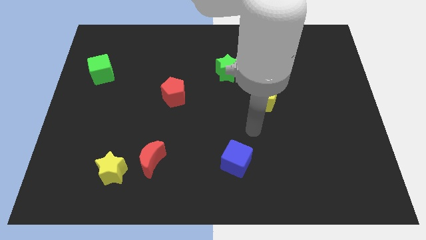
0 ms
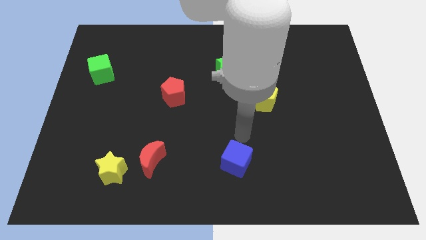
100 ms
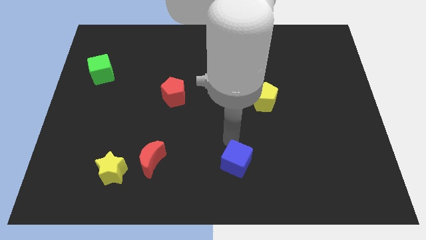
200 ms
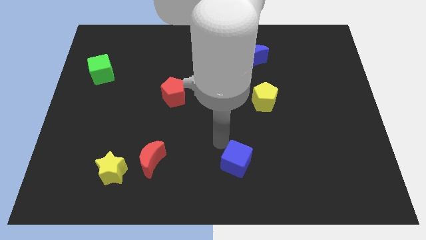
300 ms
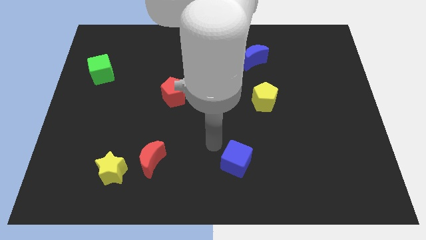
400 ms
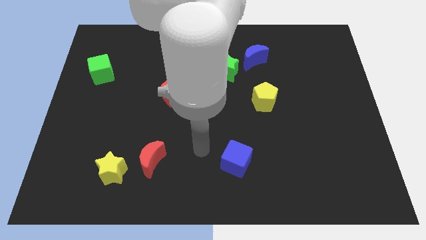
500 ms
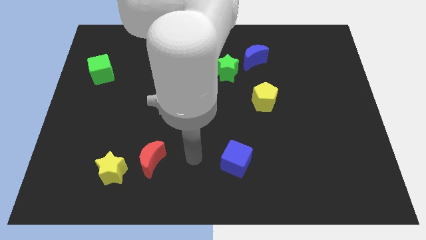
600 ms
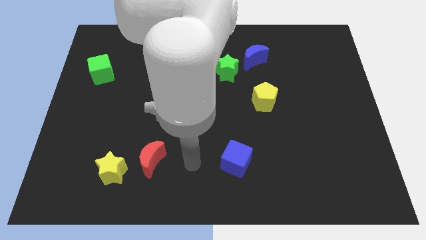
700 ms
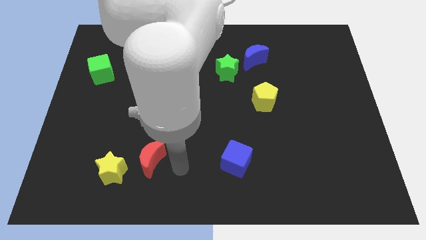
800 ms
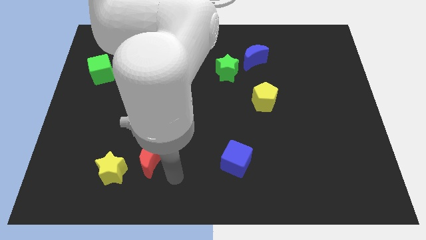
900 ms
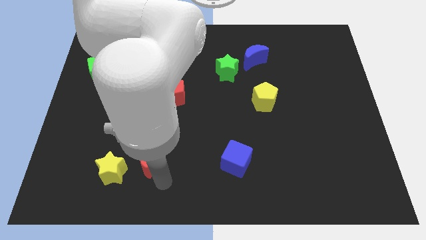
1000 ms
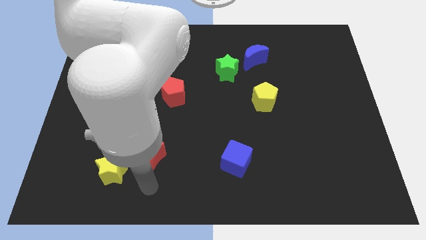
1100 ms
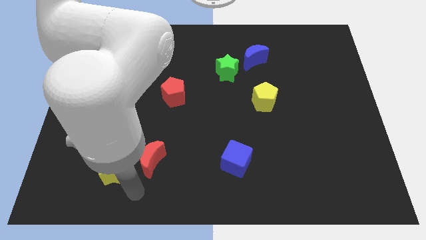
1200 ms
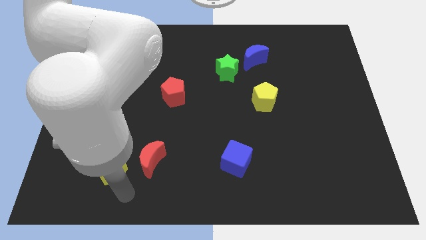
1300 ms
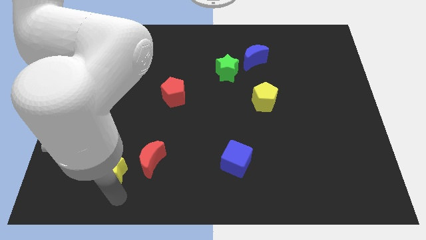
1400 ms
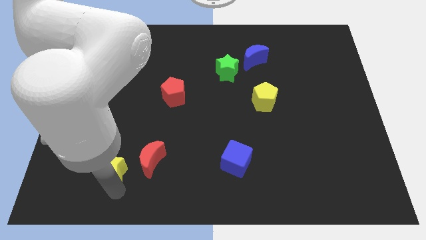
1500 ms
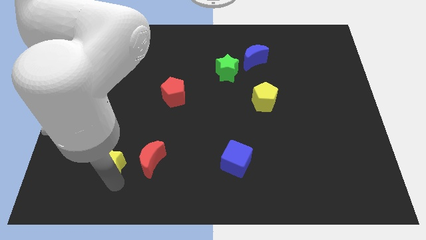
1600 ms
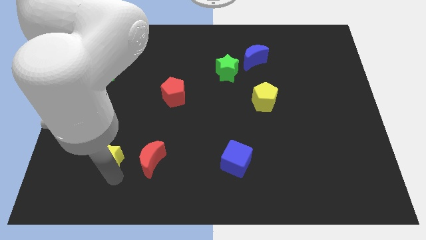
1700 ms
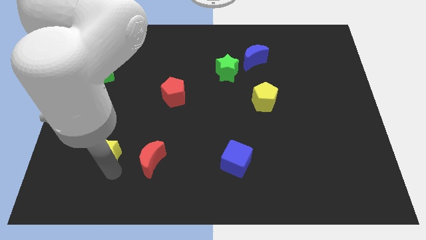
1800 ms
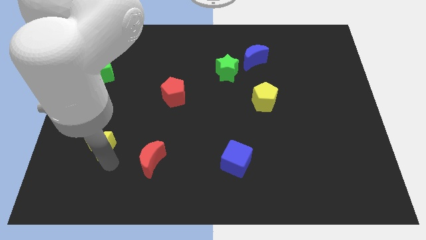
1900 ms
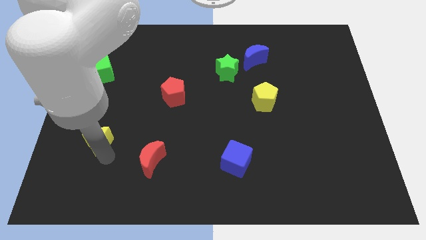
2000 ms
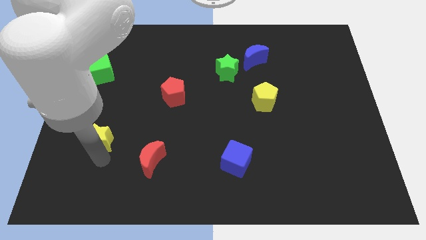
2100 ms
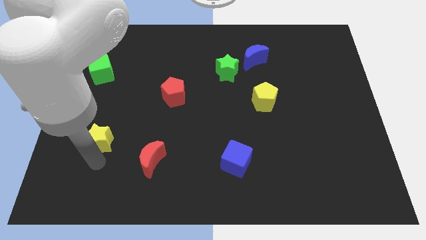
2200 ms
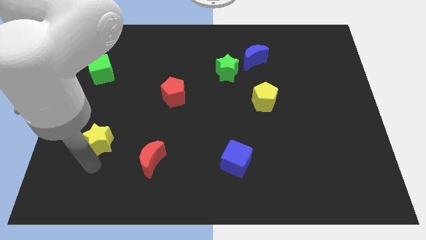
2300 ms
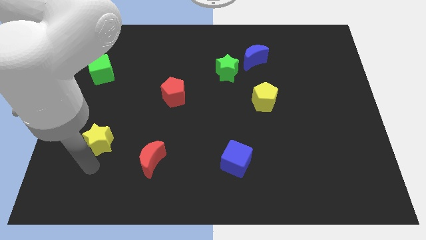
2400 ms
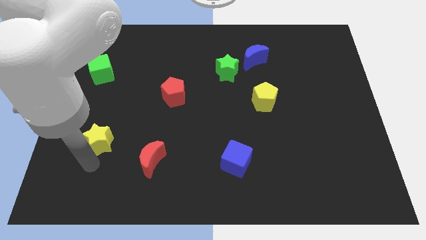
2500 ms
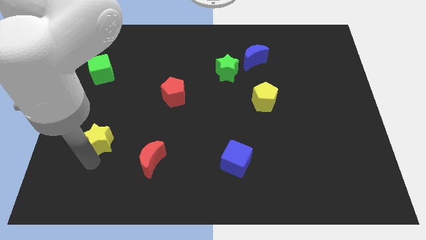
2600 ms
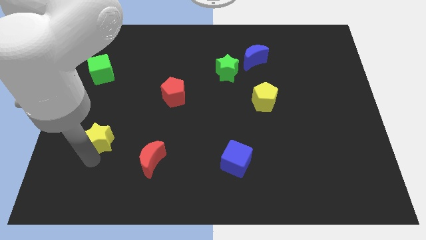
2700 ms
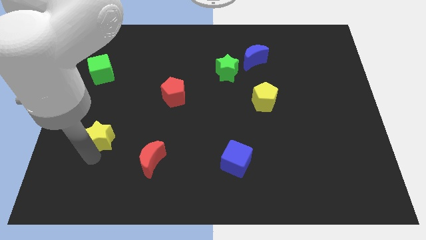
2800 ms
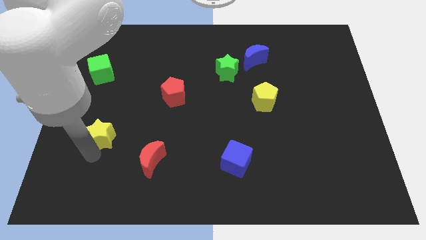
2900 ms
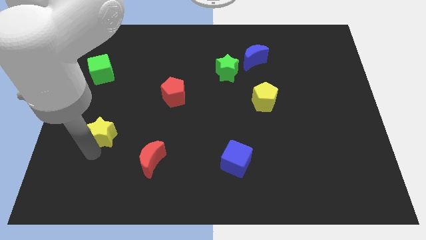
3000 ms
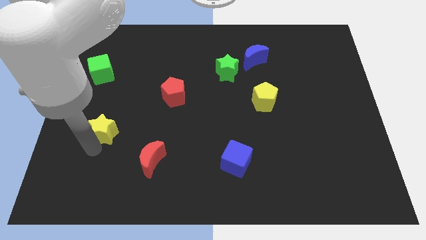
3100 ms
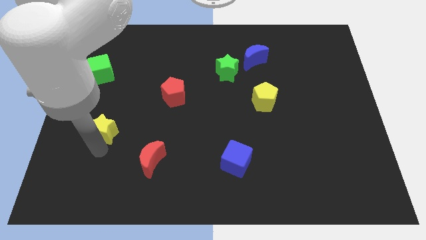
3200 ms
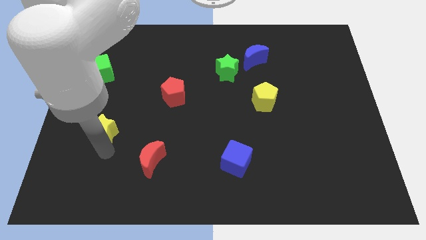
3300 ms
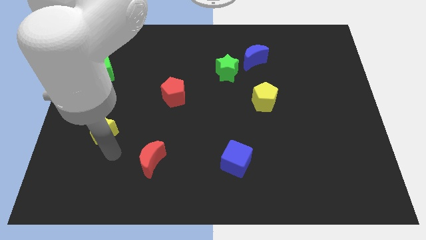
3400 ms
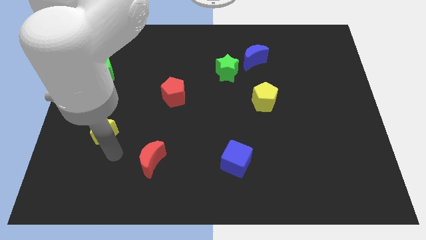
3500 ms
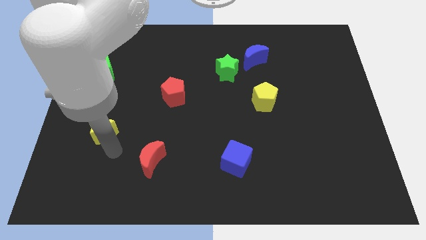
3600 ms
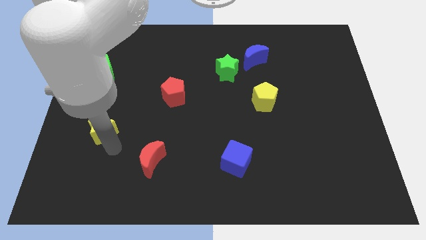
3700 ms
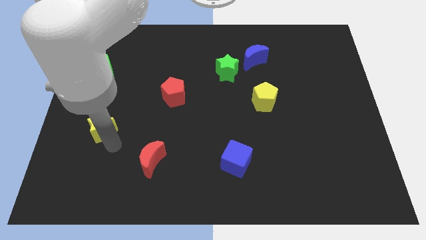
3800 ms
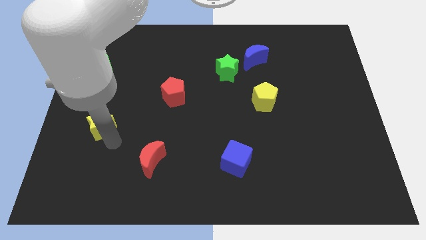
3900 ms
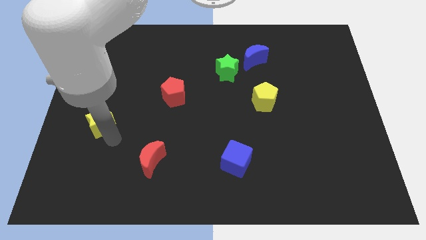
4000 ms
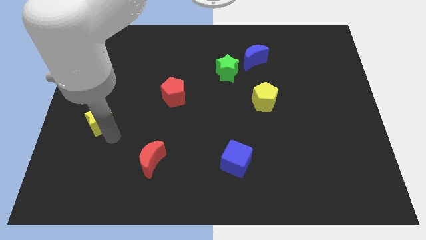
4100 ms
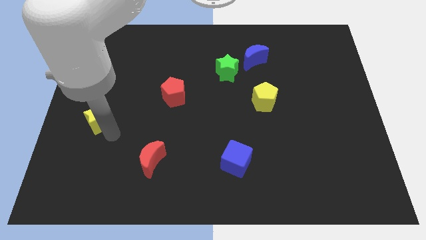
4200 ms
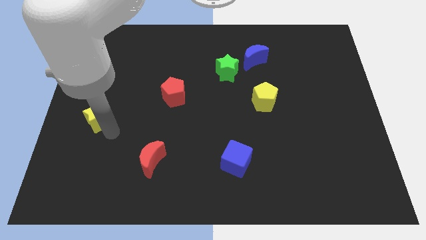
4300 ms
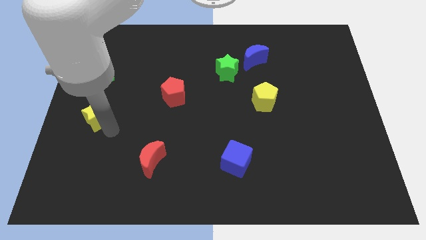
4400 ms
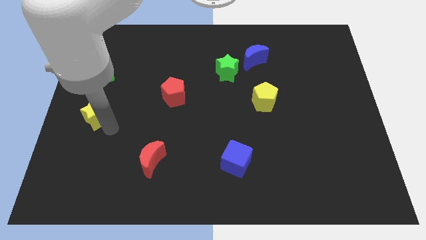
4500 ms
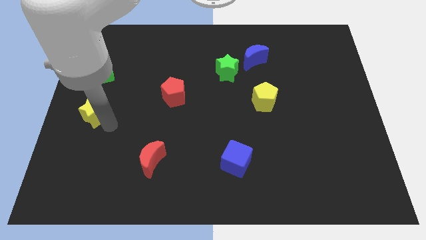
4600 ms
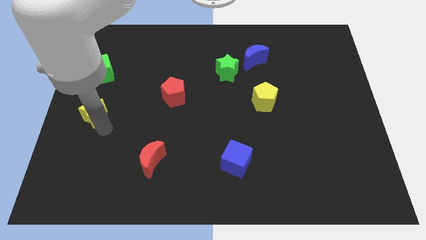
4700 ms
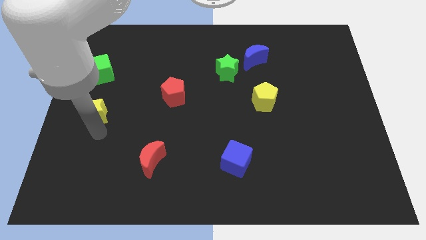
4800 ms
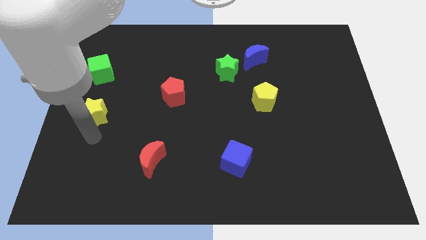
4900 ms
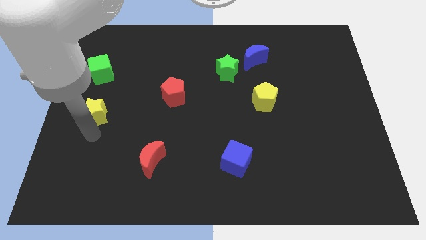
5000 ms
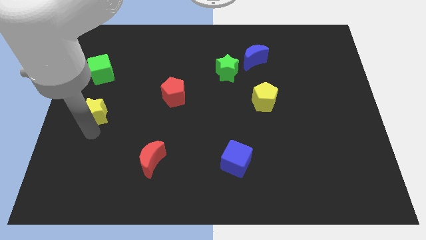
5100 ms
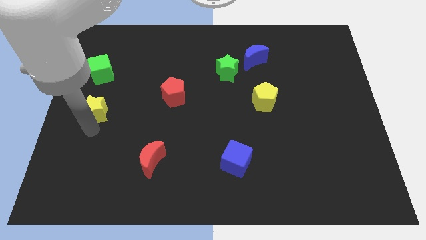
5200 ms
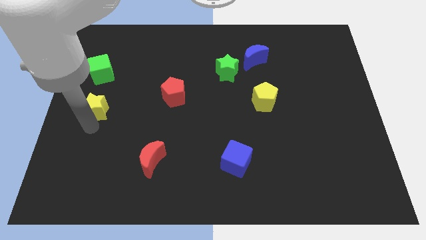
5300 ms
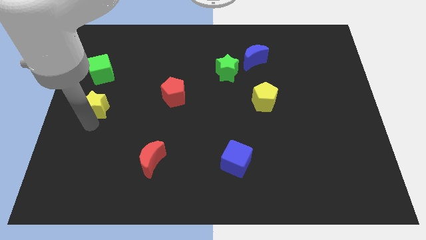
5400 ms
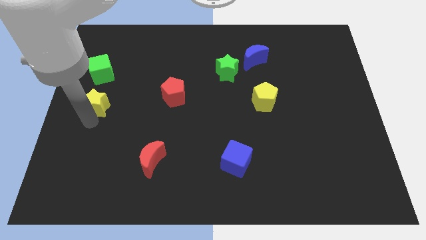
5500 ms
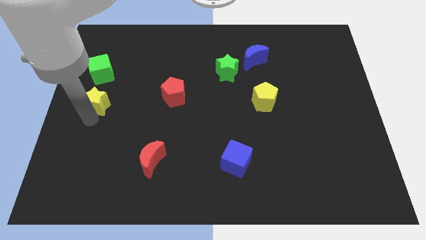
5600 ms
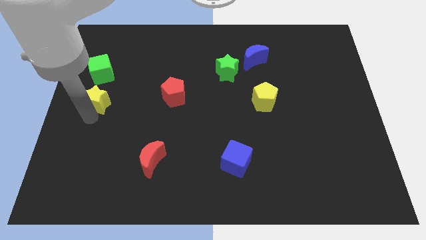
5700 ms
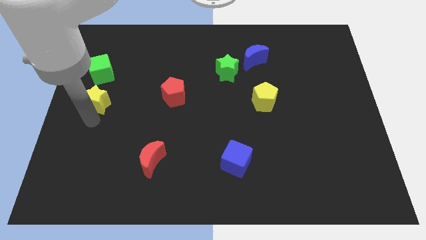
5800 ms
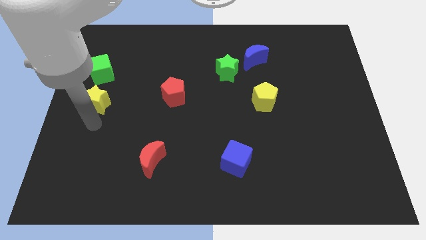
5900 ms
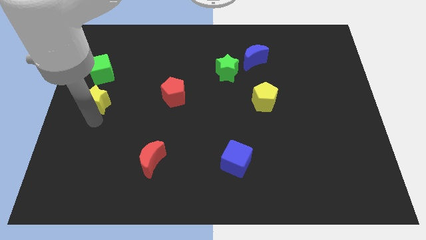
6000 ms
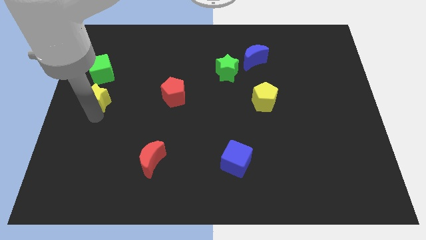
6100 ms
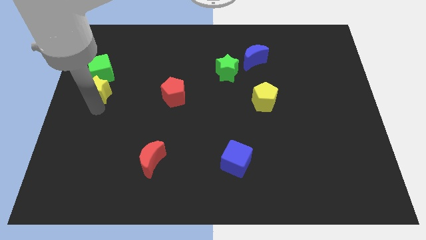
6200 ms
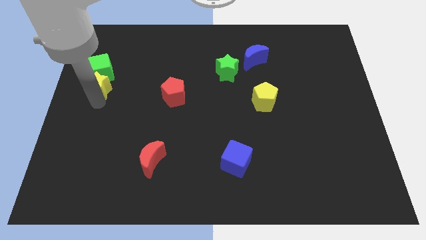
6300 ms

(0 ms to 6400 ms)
slide the yellow star towards the green cube
